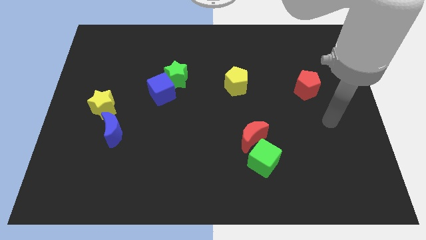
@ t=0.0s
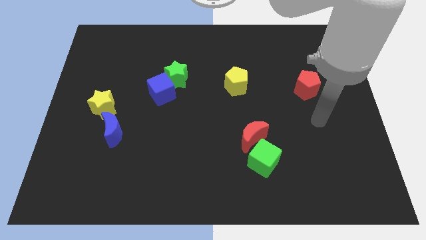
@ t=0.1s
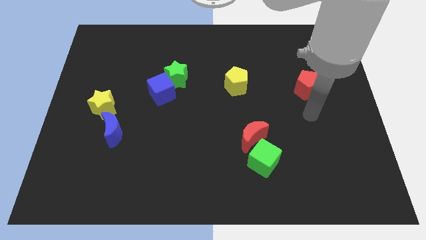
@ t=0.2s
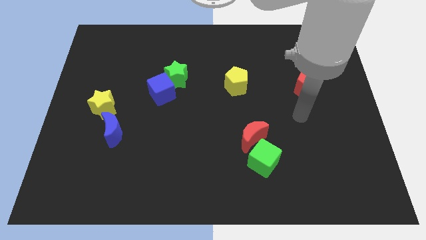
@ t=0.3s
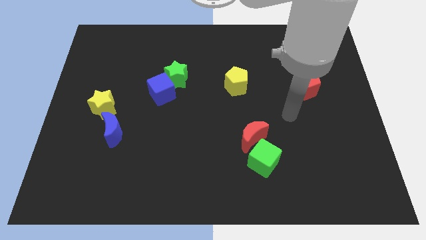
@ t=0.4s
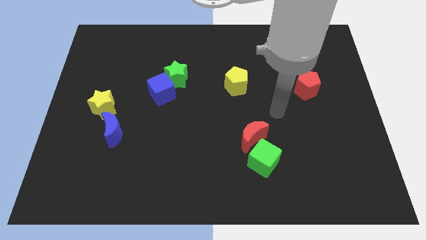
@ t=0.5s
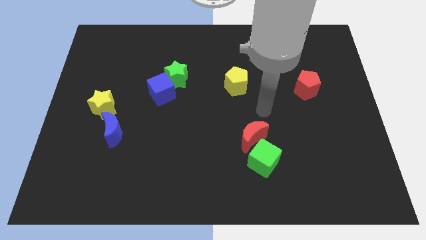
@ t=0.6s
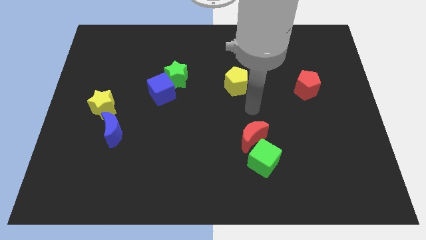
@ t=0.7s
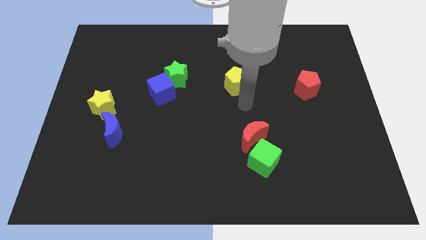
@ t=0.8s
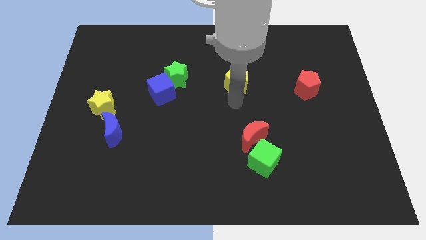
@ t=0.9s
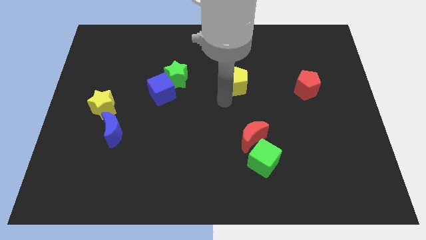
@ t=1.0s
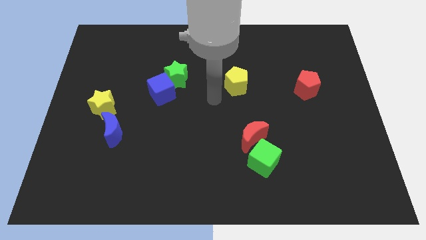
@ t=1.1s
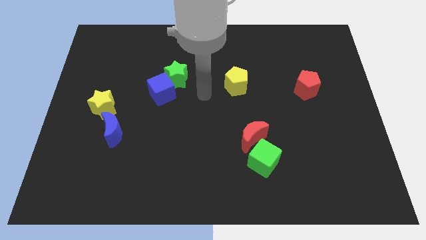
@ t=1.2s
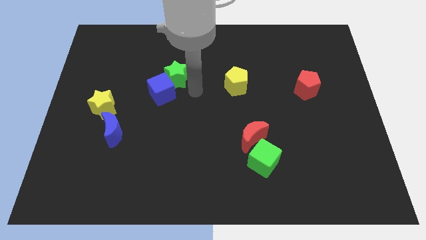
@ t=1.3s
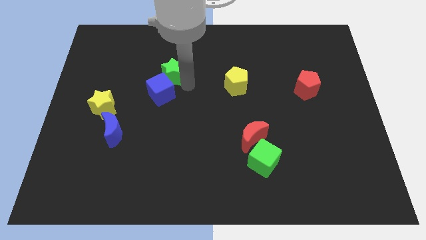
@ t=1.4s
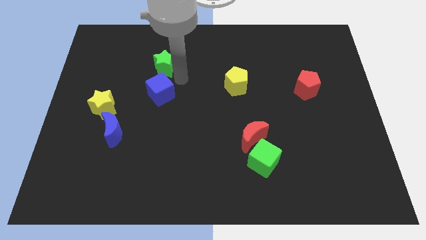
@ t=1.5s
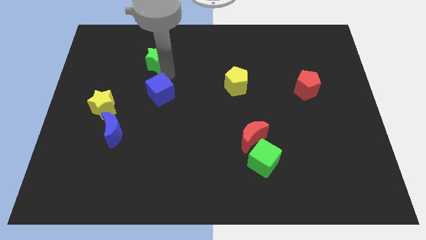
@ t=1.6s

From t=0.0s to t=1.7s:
pull the blue cube apart from the green star

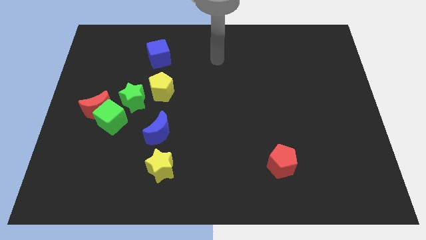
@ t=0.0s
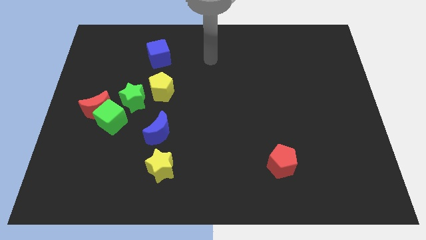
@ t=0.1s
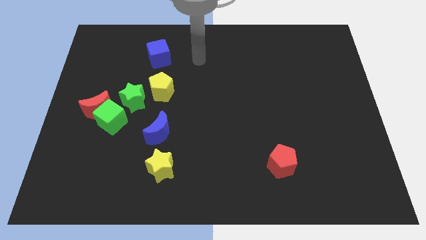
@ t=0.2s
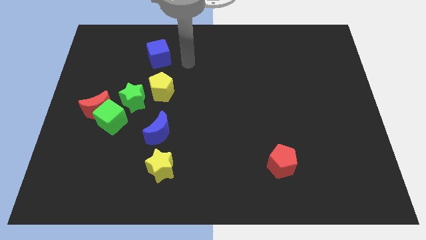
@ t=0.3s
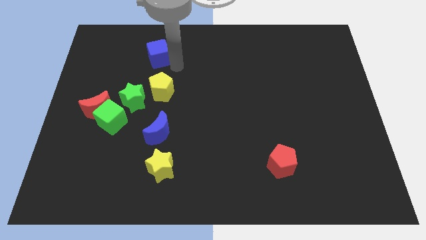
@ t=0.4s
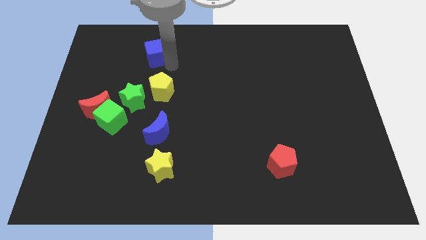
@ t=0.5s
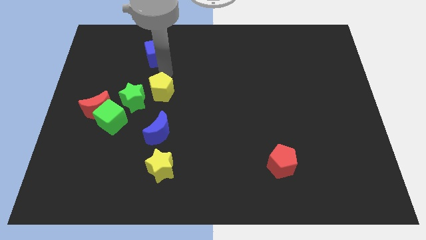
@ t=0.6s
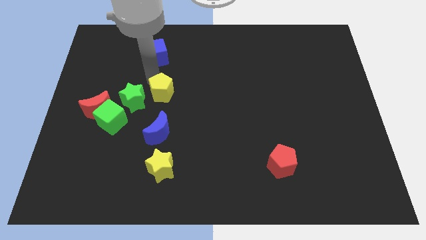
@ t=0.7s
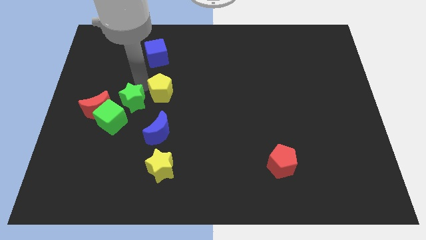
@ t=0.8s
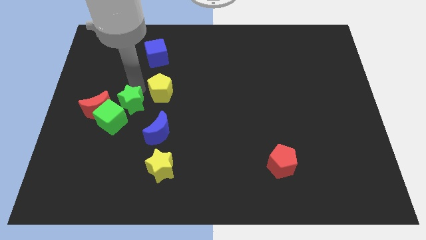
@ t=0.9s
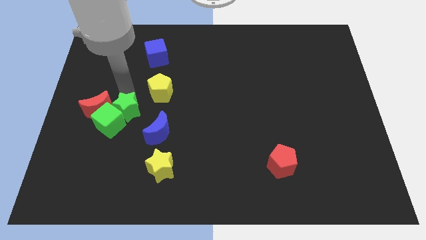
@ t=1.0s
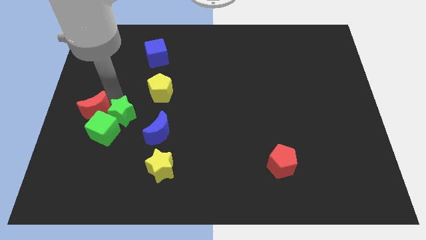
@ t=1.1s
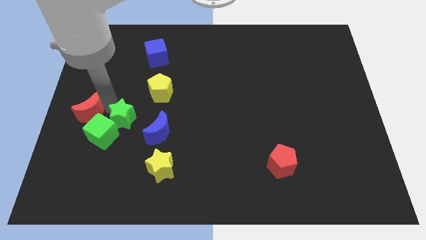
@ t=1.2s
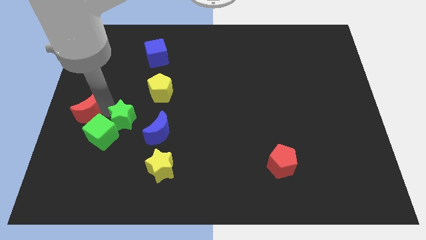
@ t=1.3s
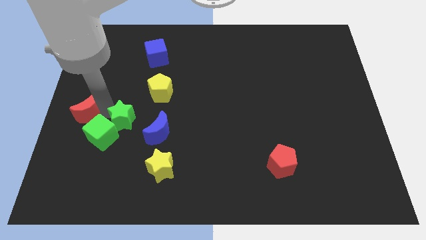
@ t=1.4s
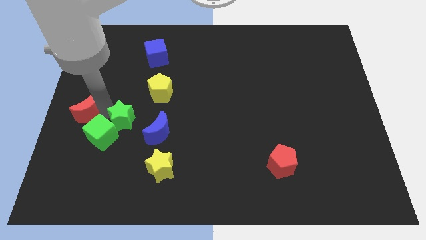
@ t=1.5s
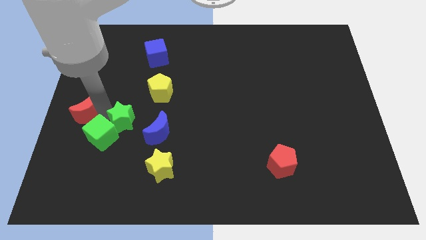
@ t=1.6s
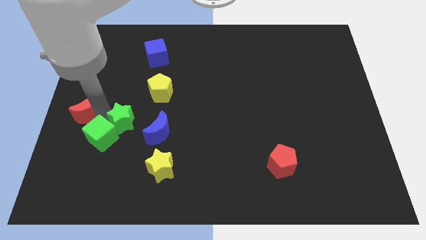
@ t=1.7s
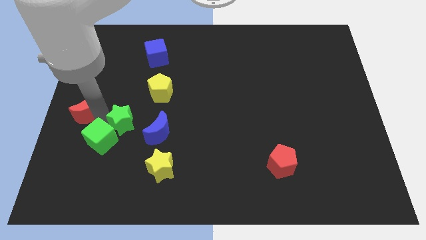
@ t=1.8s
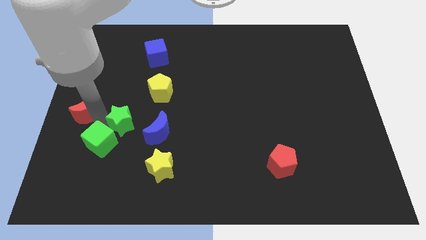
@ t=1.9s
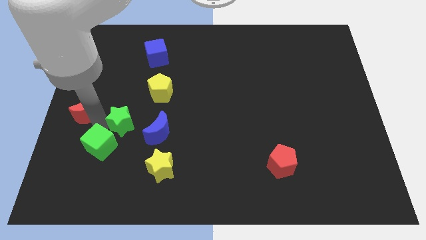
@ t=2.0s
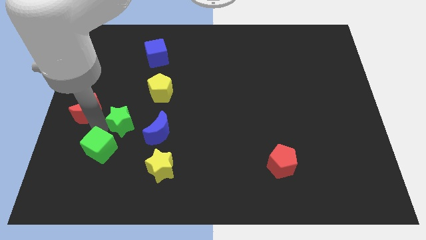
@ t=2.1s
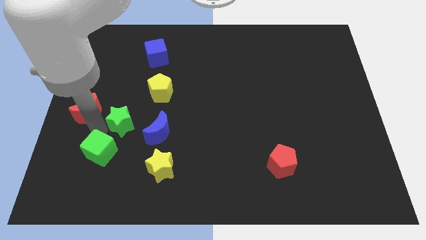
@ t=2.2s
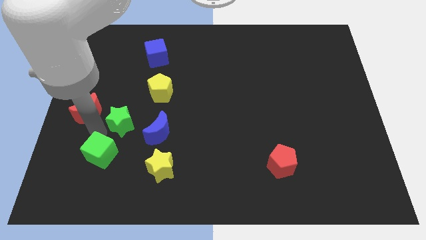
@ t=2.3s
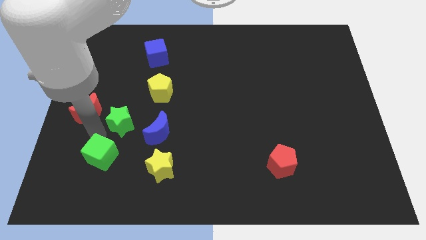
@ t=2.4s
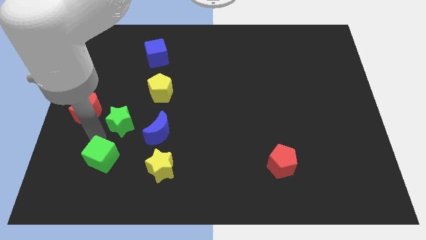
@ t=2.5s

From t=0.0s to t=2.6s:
pull the green cube apart from the red moon and green star

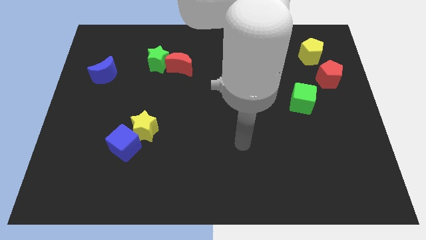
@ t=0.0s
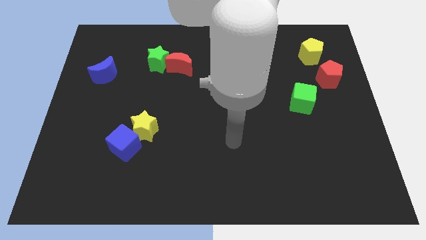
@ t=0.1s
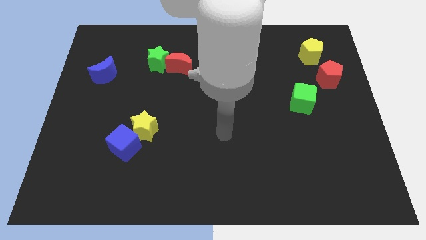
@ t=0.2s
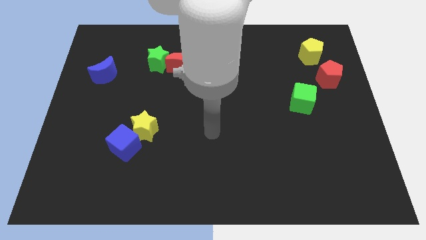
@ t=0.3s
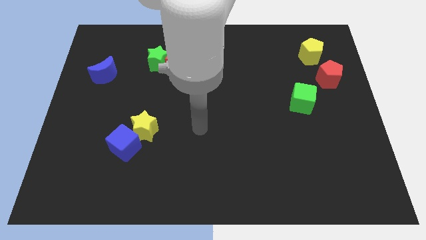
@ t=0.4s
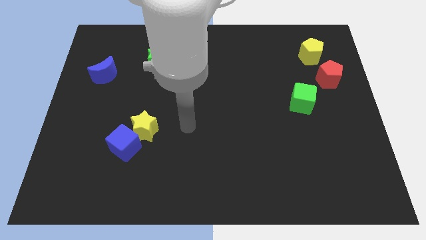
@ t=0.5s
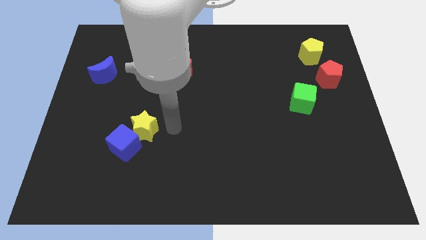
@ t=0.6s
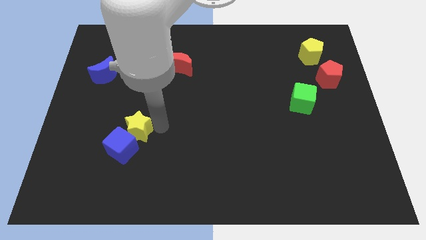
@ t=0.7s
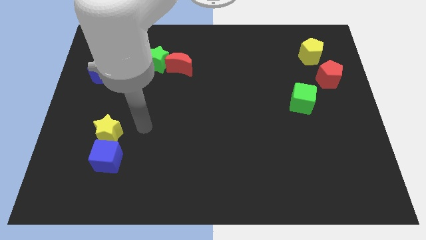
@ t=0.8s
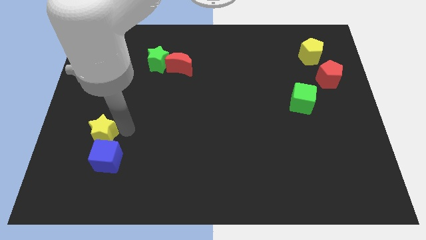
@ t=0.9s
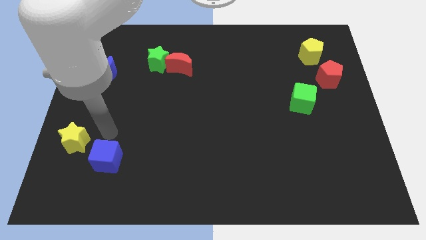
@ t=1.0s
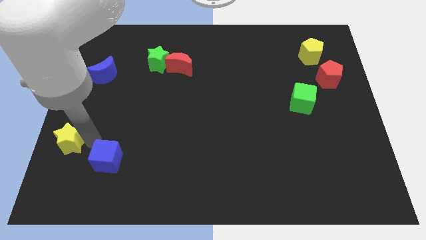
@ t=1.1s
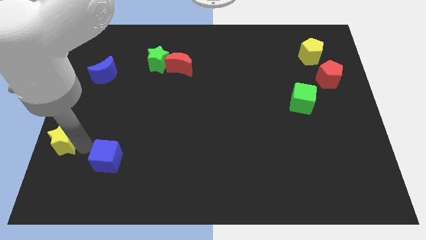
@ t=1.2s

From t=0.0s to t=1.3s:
pull the blue cube apart from the yellow star

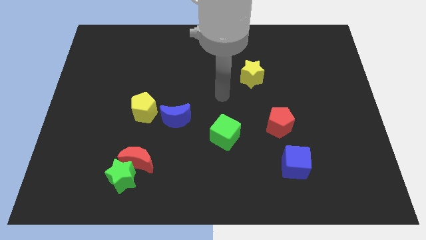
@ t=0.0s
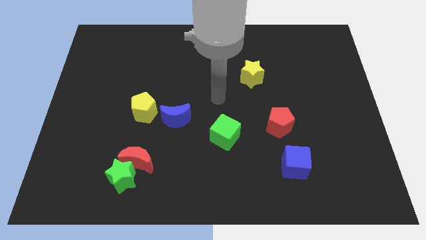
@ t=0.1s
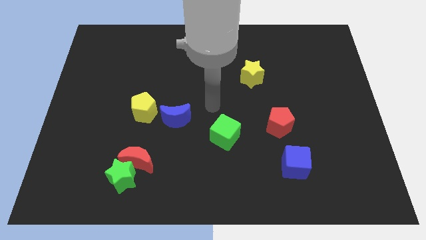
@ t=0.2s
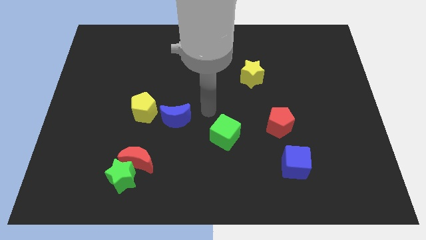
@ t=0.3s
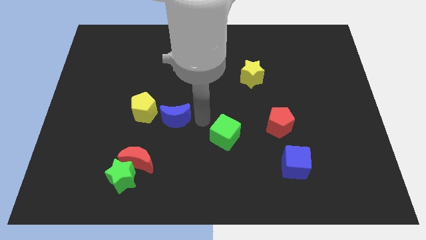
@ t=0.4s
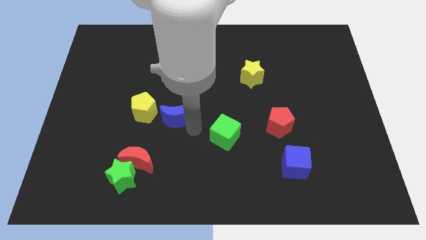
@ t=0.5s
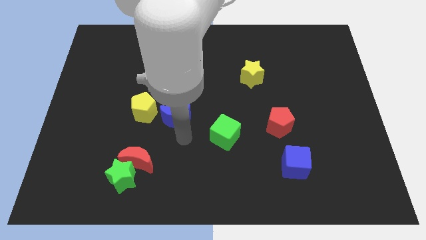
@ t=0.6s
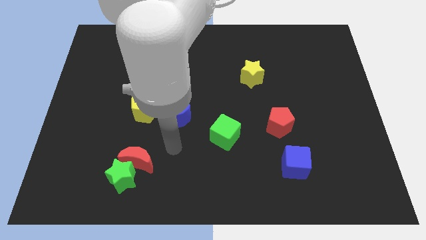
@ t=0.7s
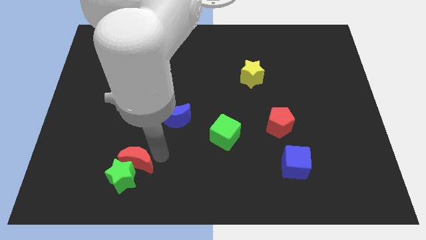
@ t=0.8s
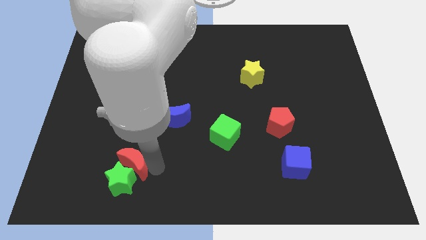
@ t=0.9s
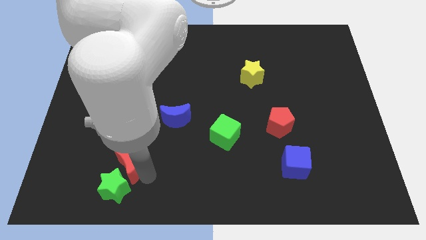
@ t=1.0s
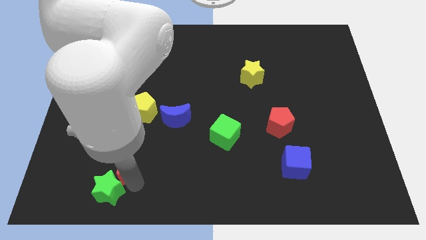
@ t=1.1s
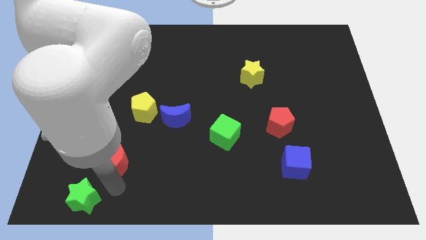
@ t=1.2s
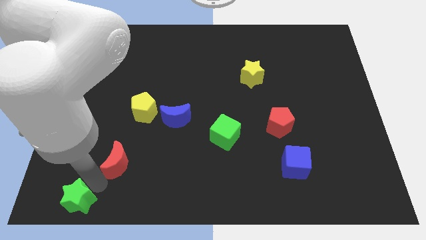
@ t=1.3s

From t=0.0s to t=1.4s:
pull the red moon apart from the green star

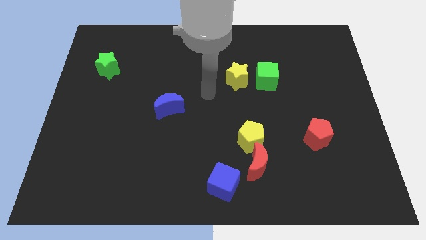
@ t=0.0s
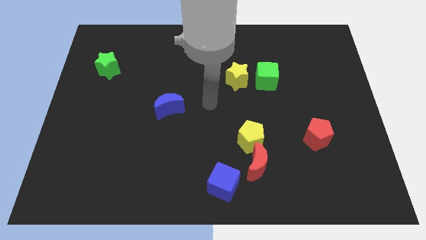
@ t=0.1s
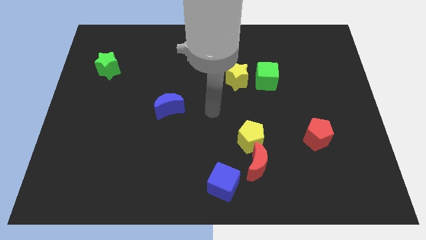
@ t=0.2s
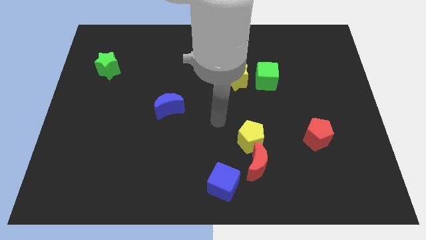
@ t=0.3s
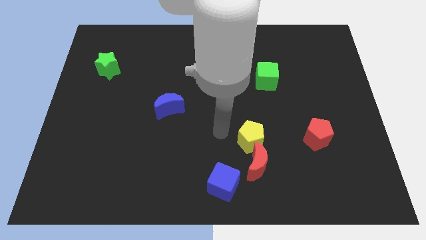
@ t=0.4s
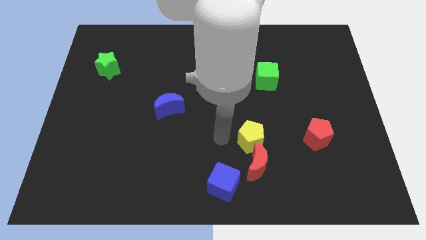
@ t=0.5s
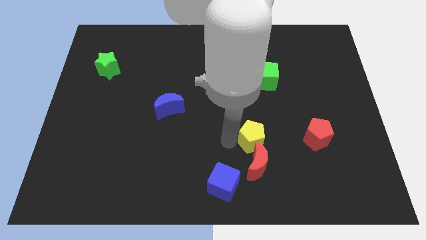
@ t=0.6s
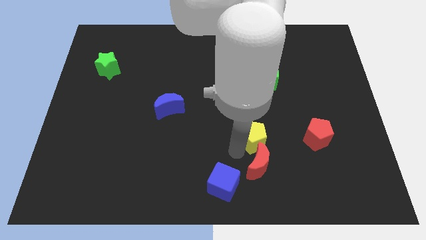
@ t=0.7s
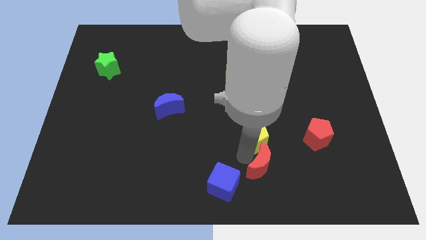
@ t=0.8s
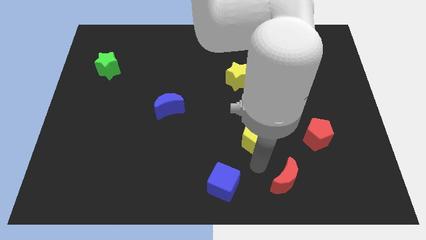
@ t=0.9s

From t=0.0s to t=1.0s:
move the yellow pentagon away from the red moon

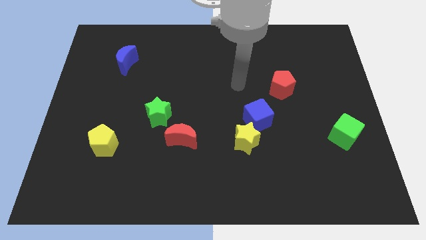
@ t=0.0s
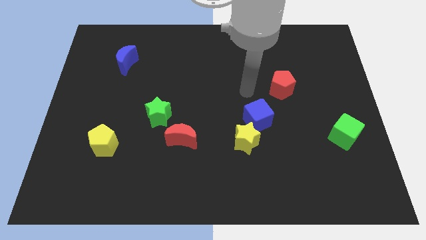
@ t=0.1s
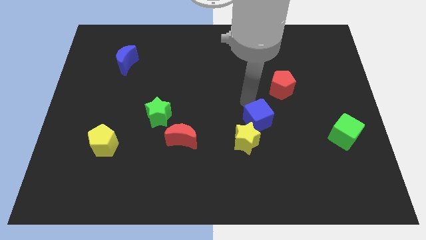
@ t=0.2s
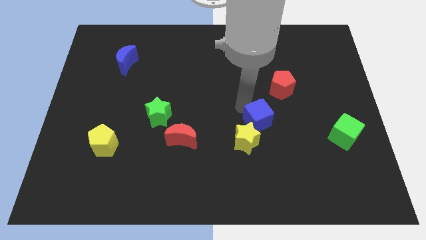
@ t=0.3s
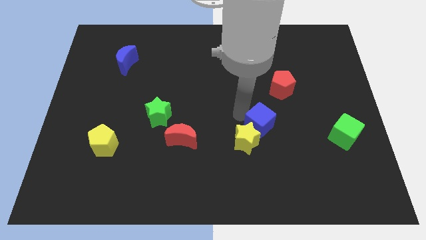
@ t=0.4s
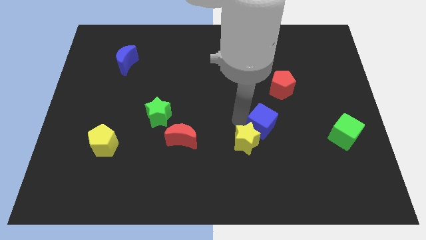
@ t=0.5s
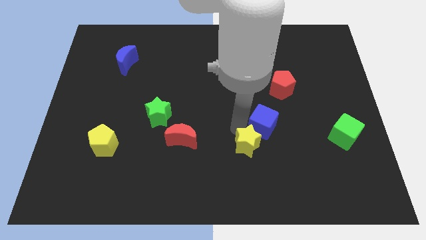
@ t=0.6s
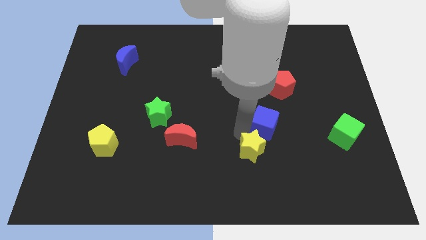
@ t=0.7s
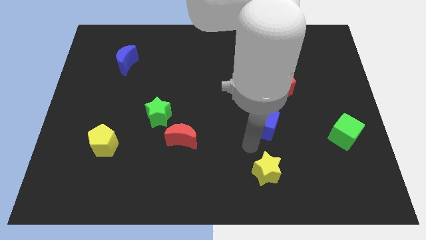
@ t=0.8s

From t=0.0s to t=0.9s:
separate the blue cube from the yellow star

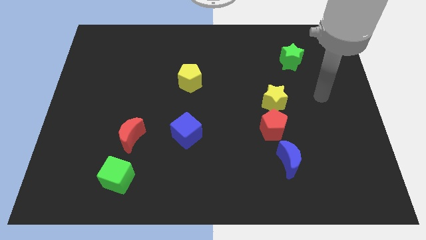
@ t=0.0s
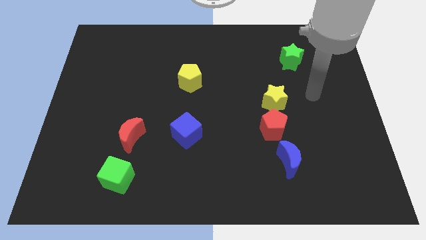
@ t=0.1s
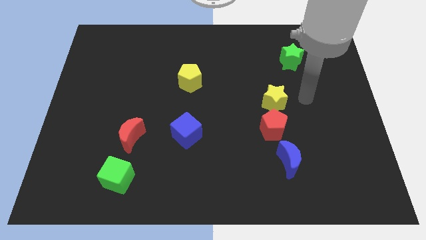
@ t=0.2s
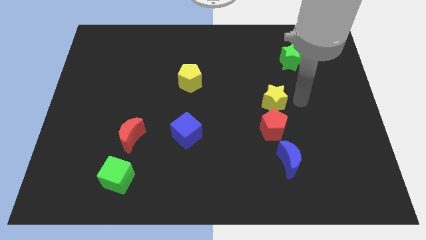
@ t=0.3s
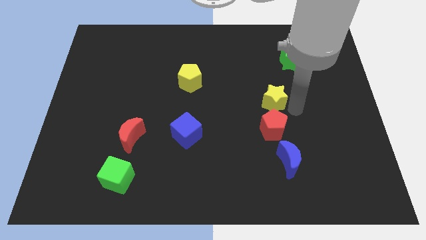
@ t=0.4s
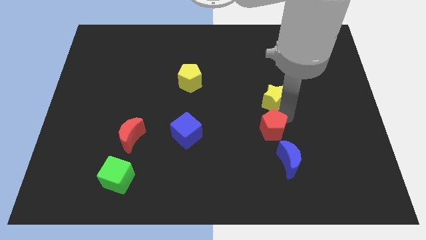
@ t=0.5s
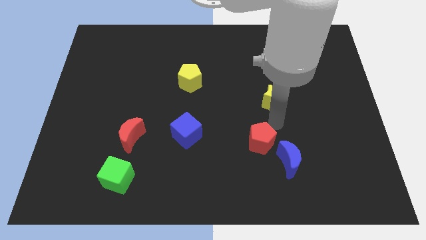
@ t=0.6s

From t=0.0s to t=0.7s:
separate the yellow star from the red pentagon
